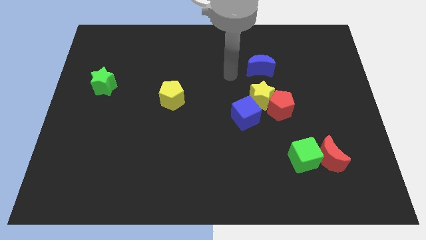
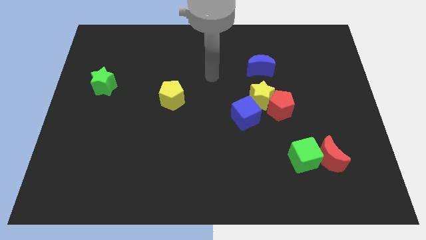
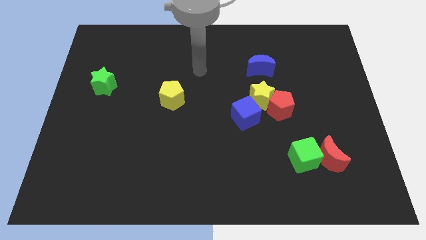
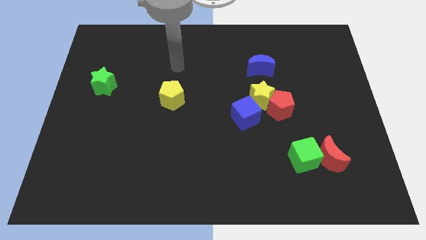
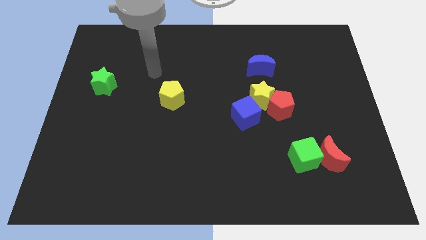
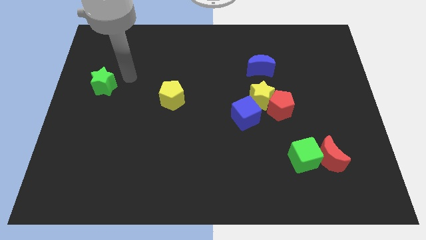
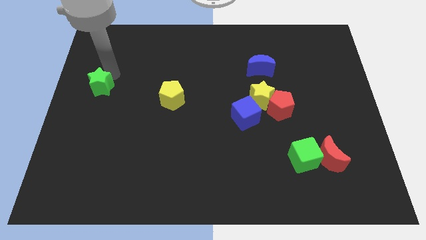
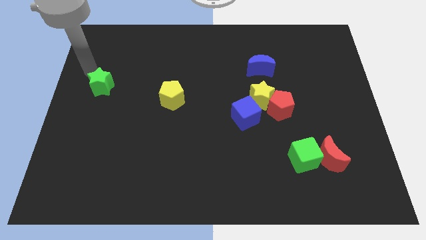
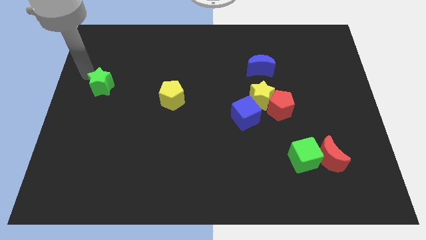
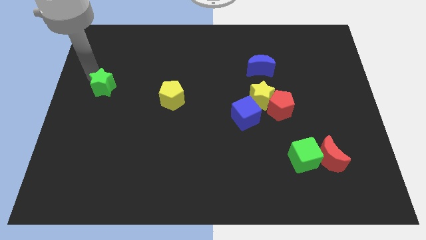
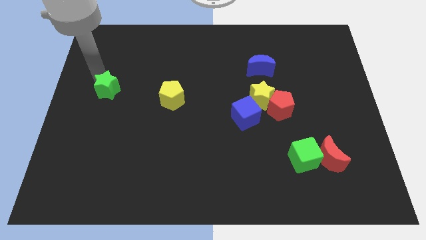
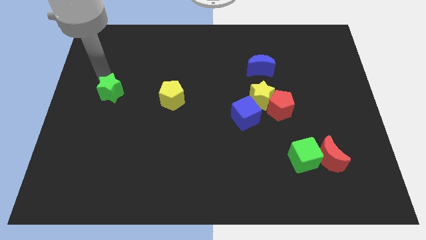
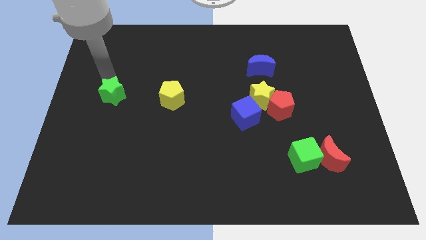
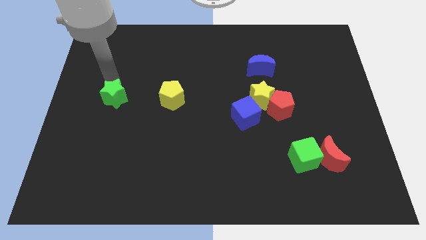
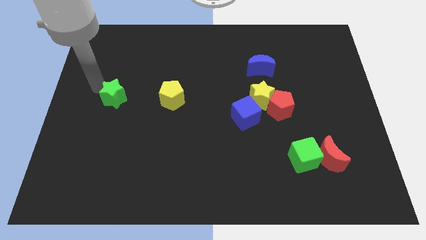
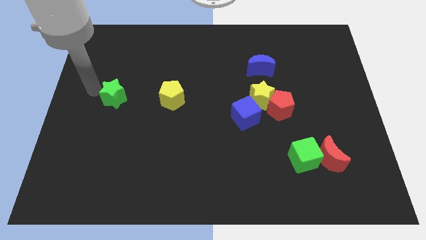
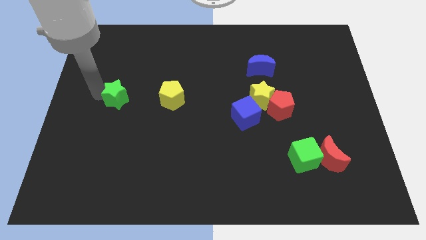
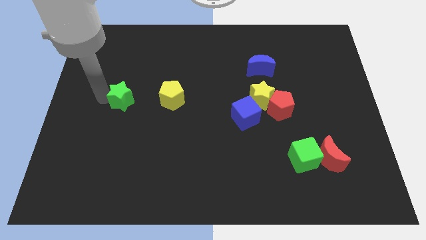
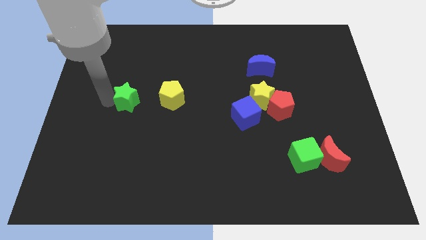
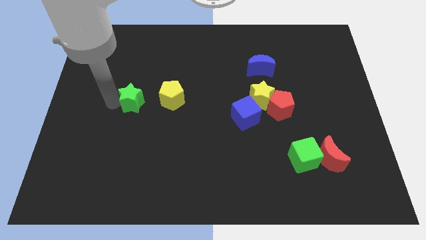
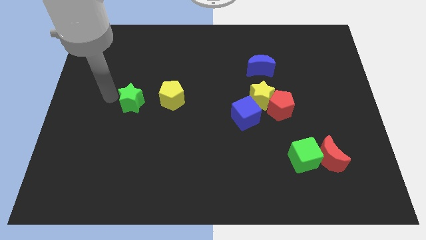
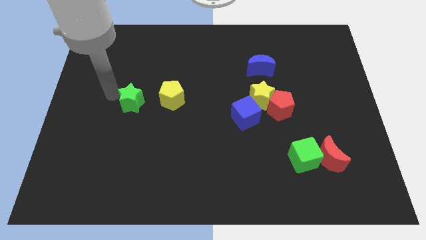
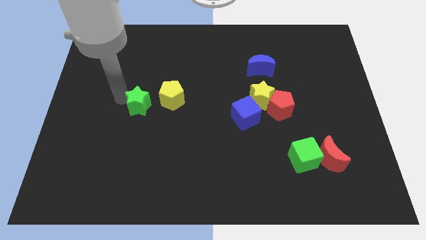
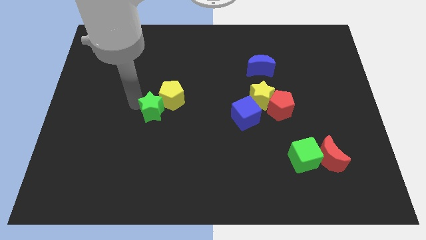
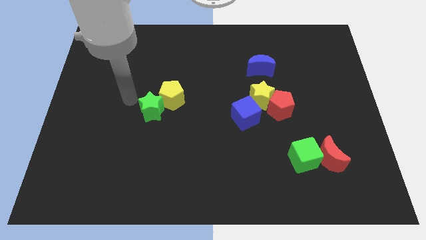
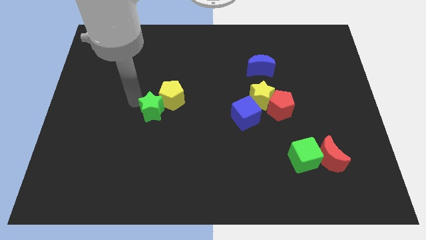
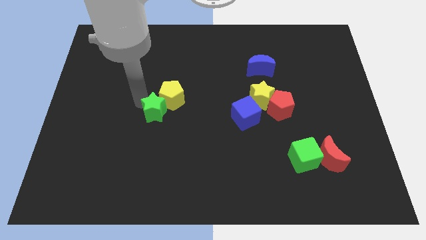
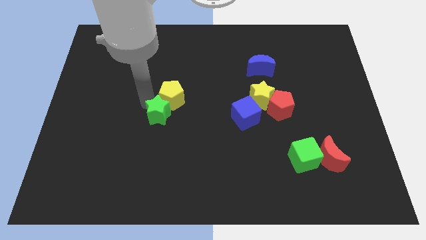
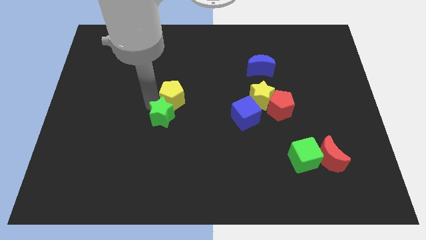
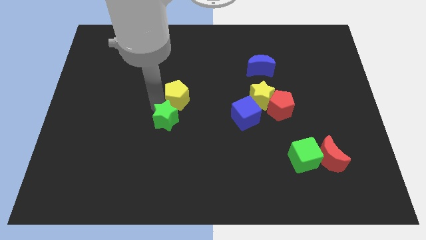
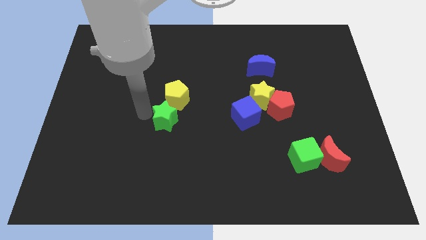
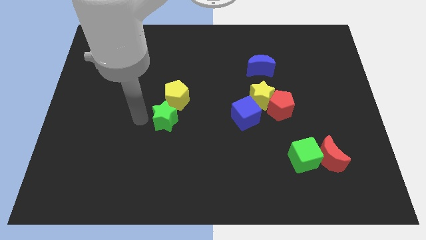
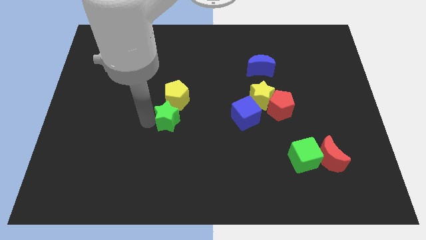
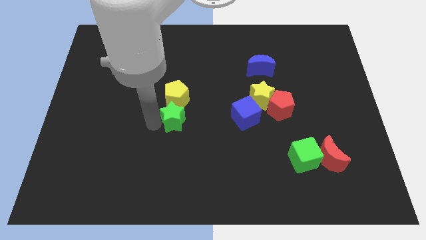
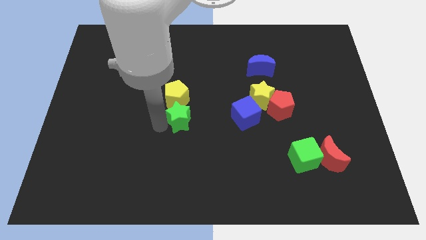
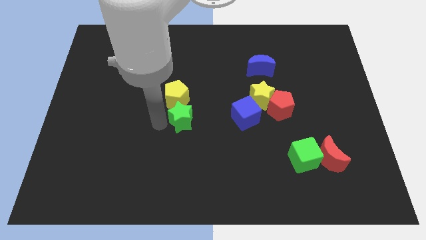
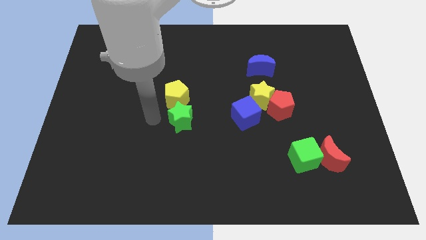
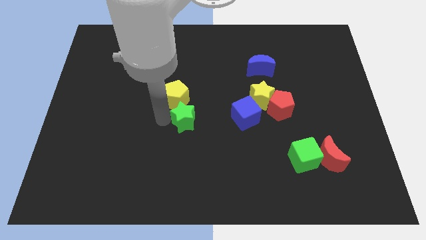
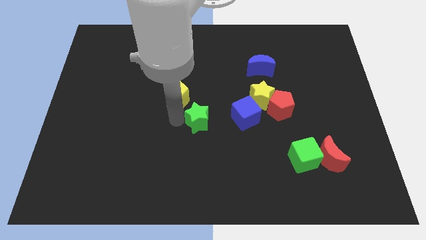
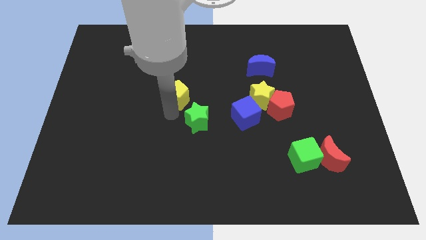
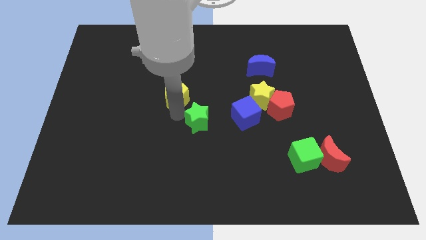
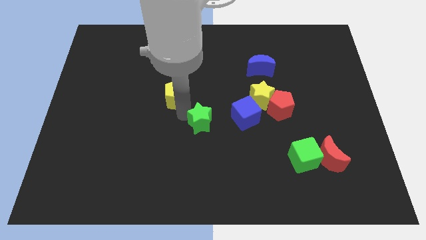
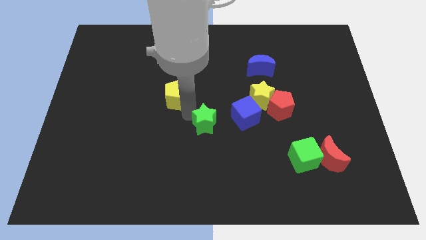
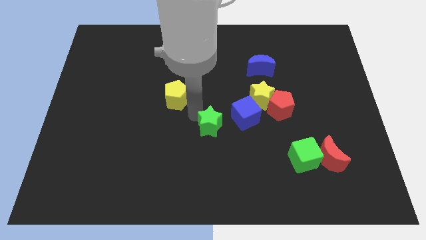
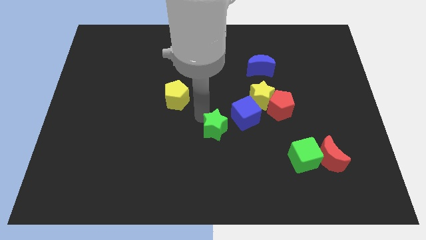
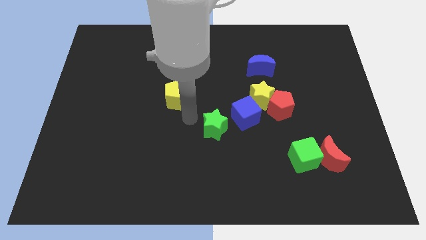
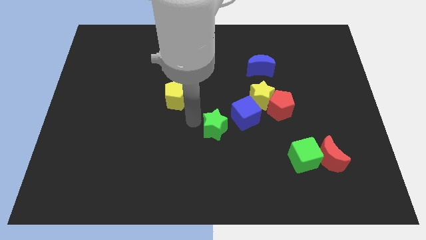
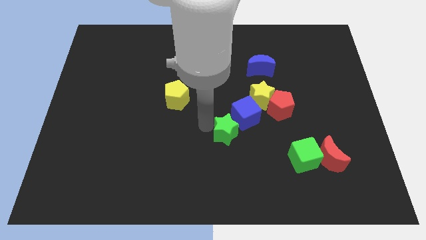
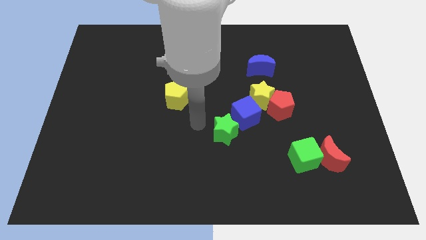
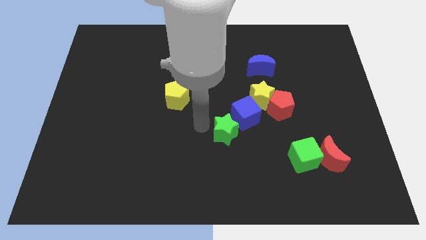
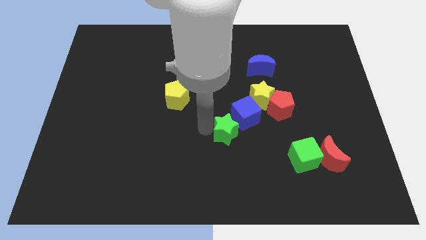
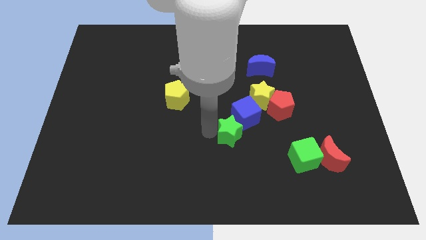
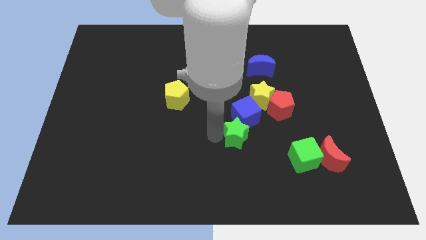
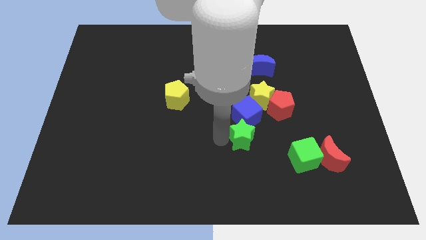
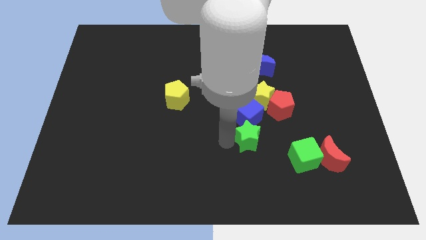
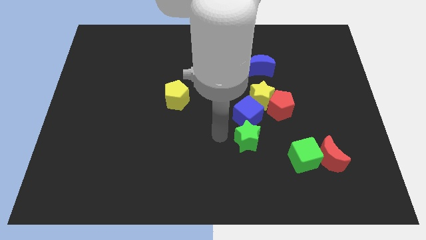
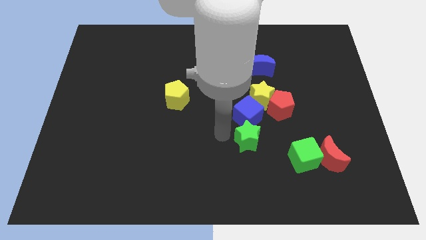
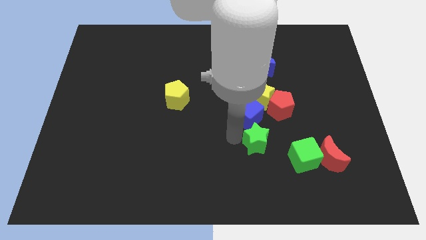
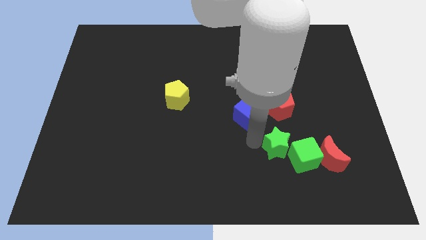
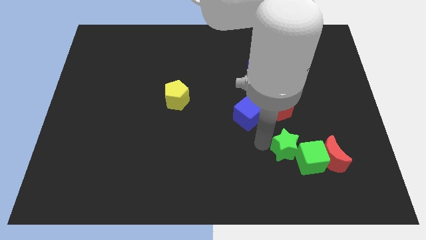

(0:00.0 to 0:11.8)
move the green star towards the green cube

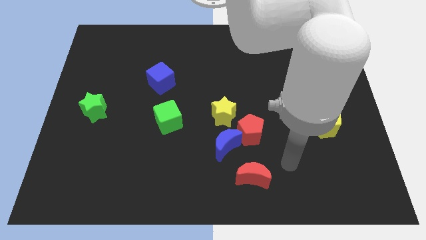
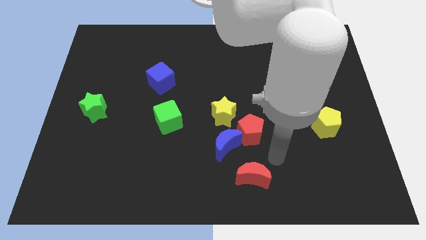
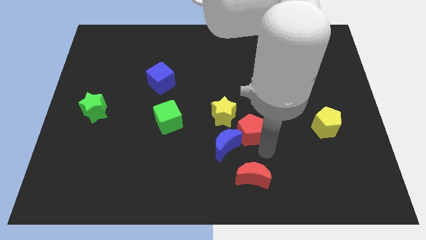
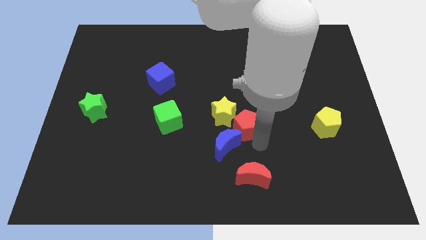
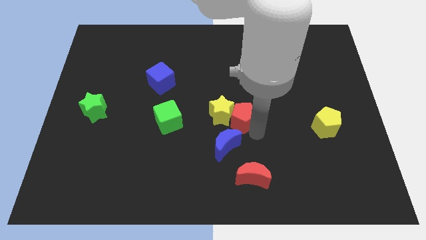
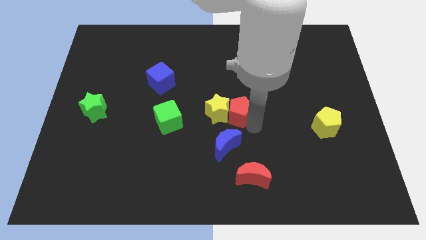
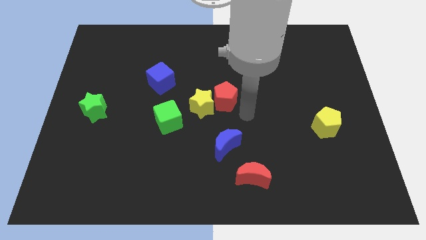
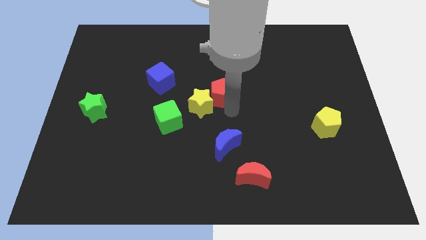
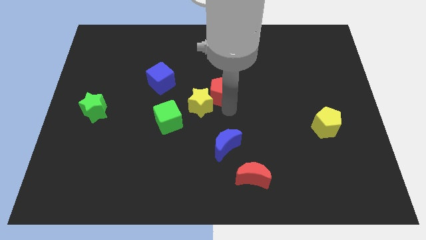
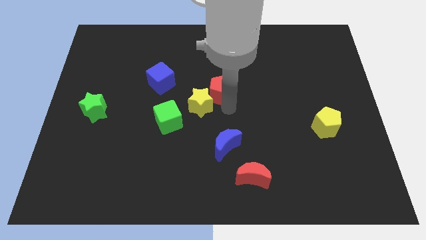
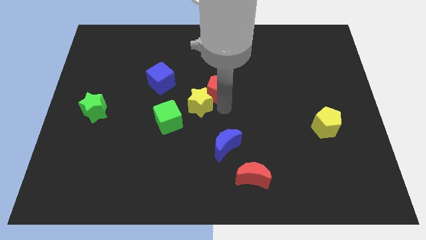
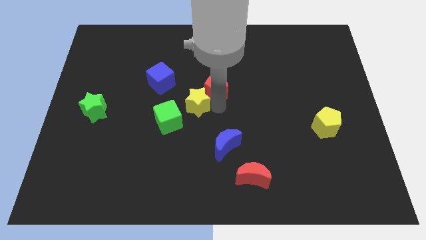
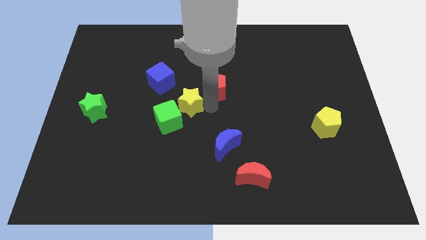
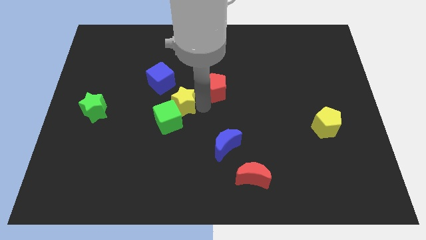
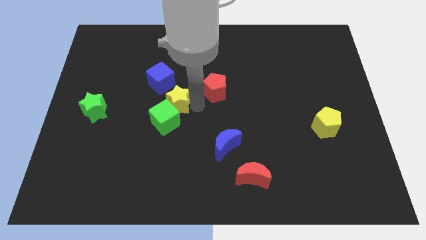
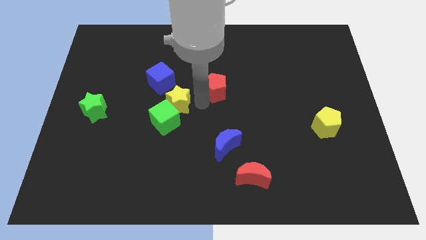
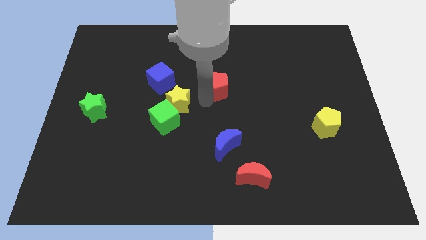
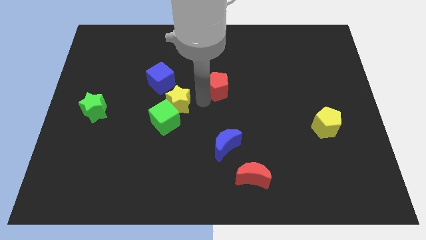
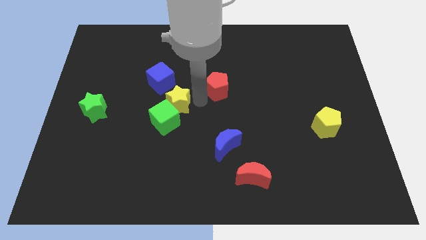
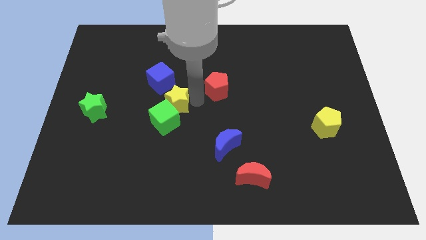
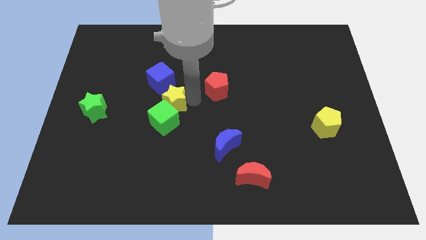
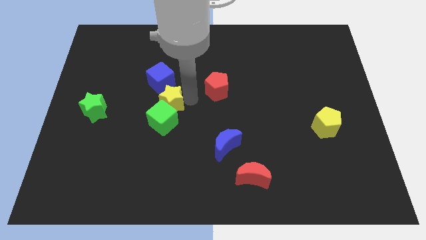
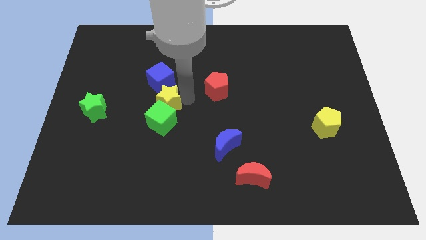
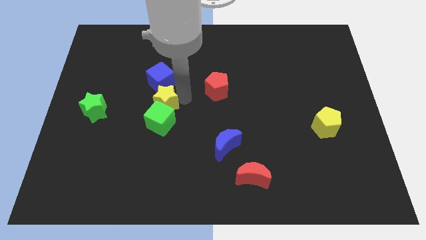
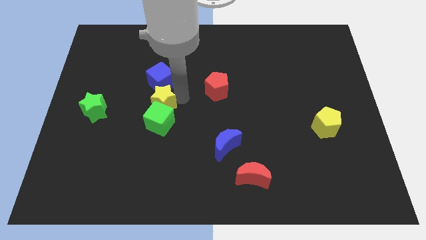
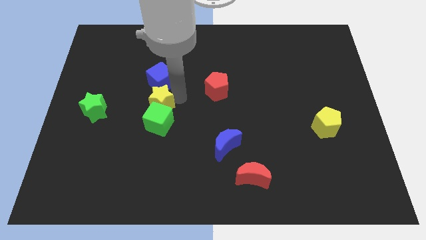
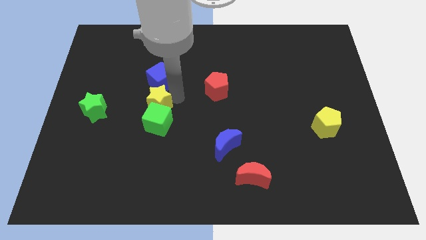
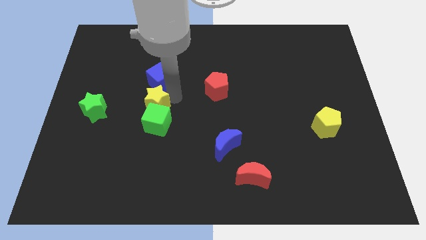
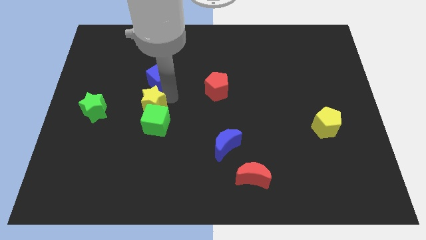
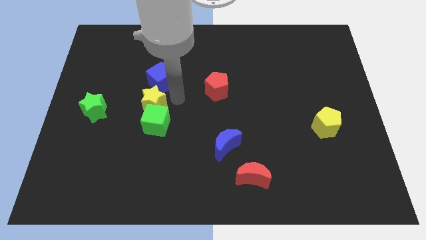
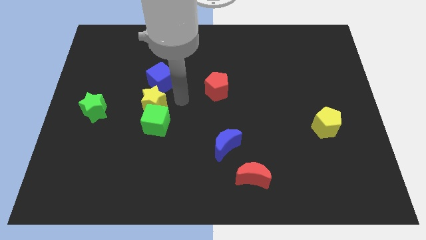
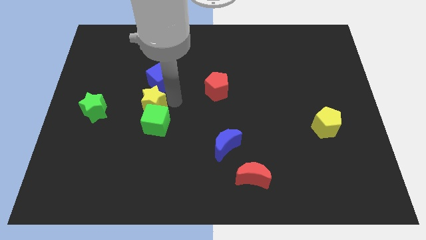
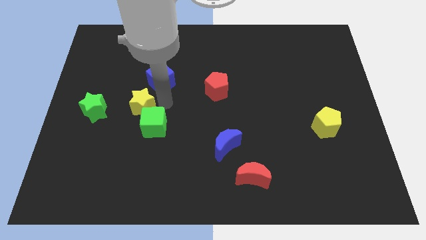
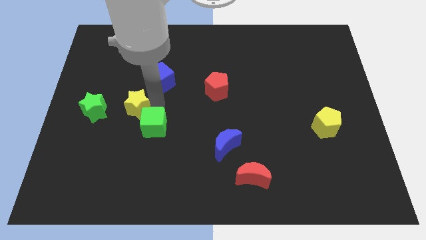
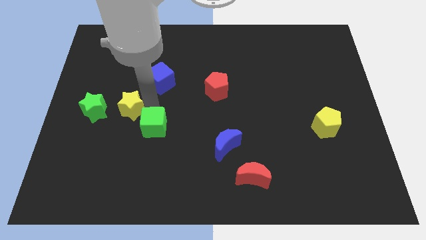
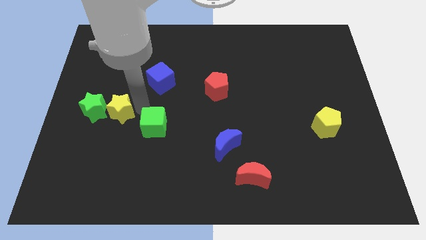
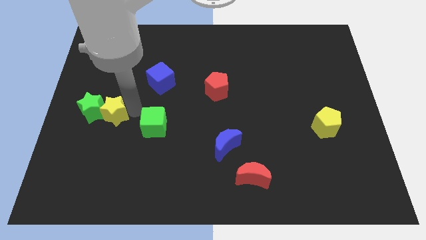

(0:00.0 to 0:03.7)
slide the yellow star next to the green star
